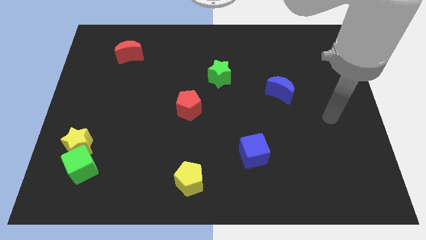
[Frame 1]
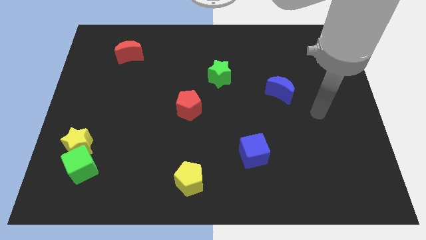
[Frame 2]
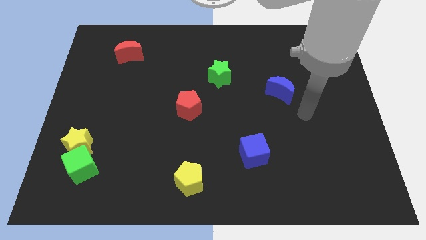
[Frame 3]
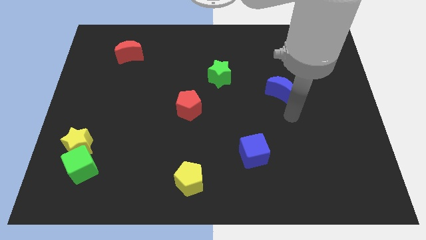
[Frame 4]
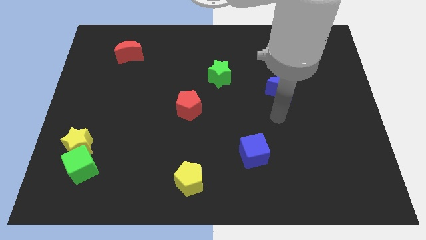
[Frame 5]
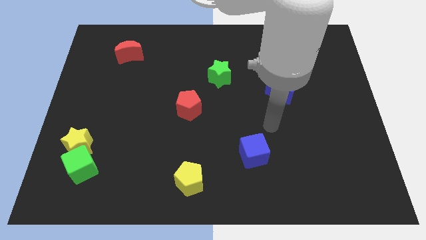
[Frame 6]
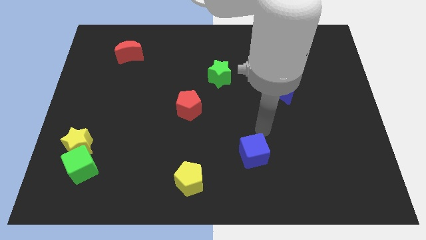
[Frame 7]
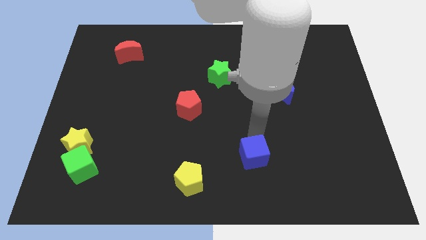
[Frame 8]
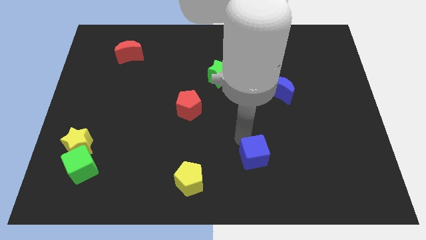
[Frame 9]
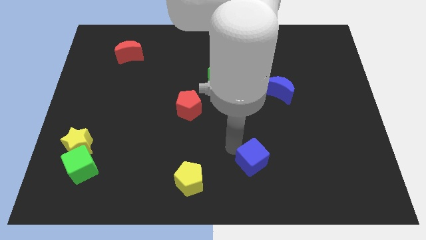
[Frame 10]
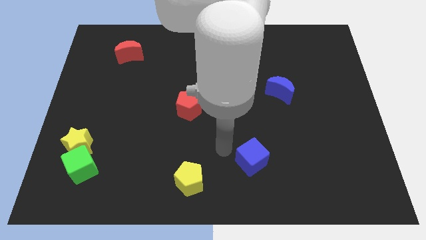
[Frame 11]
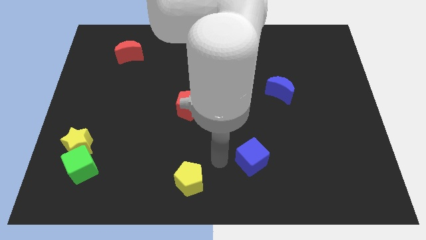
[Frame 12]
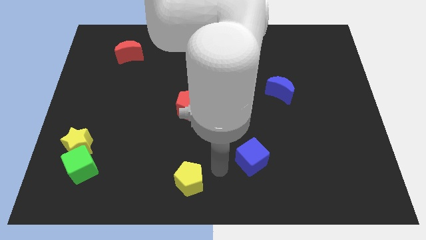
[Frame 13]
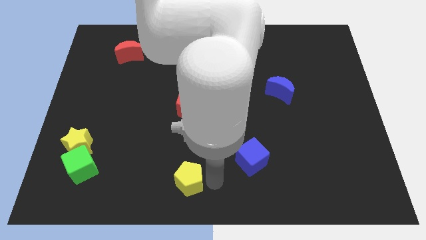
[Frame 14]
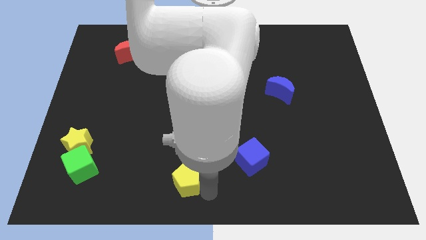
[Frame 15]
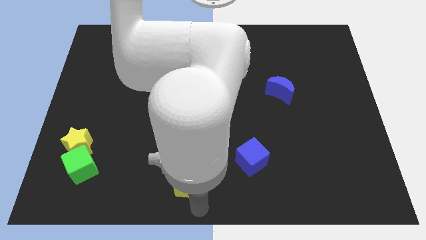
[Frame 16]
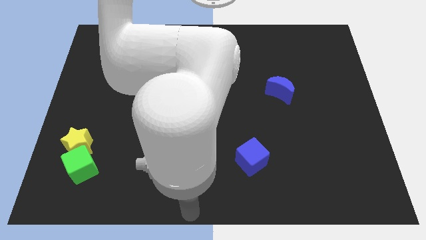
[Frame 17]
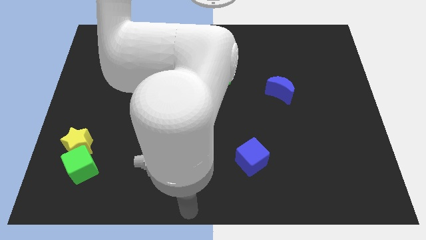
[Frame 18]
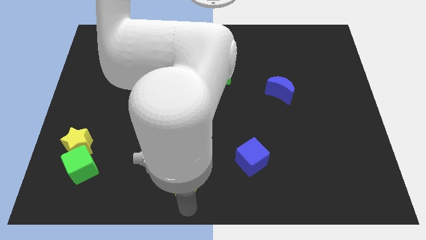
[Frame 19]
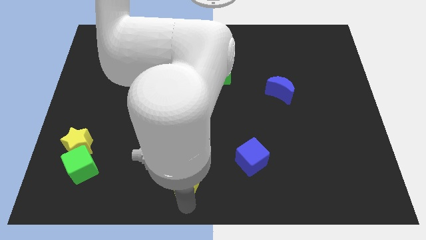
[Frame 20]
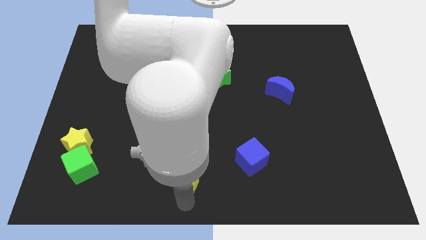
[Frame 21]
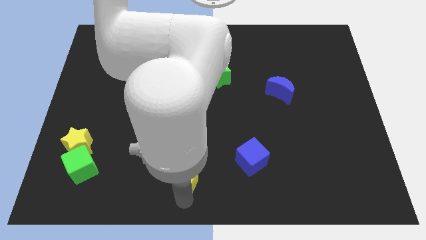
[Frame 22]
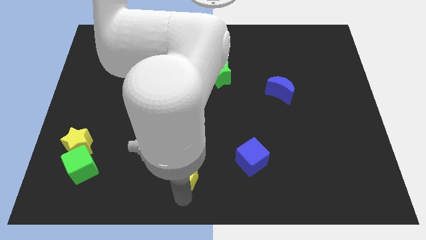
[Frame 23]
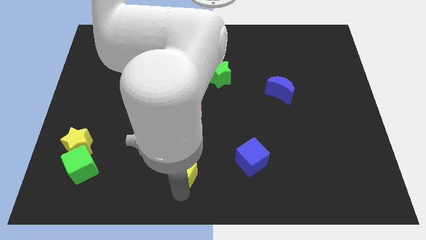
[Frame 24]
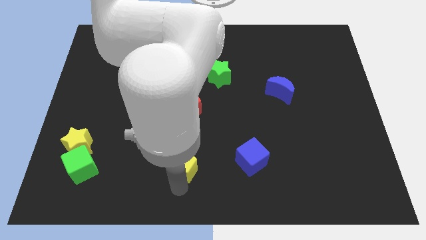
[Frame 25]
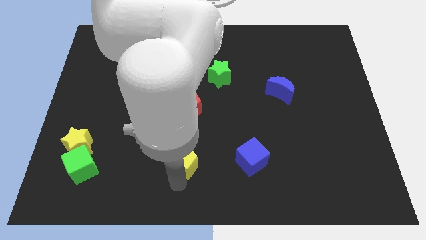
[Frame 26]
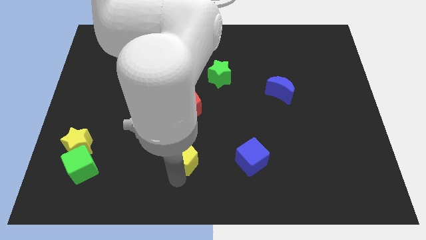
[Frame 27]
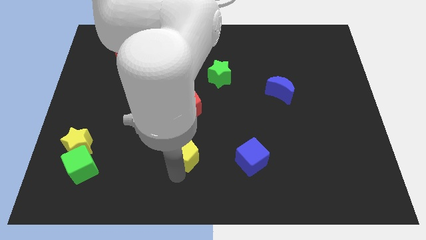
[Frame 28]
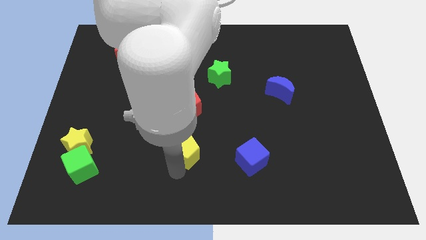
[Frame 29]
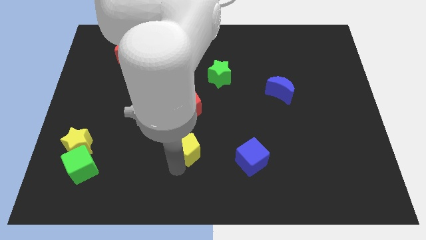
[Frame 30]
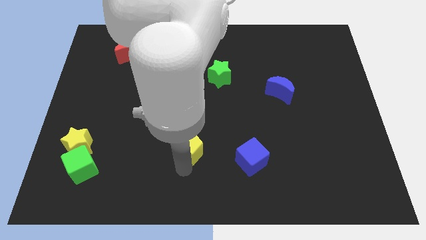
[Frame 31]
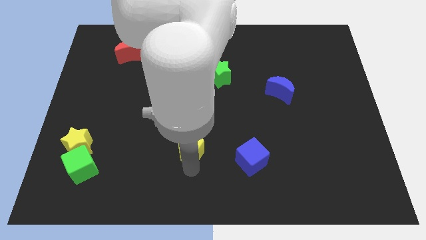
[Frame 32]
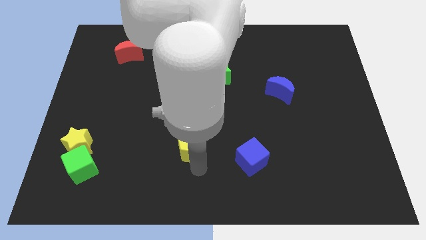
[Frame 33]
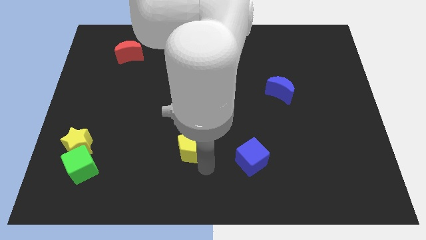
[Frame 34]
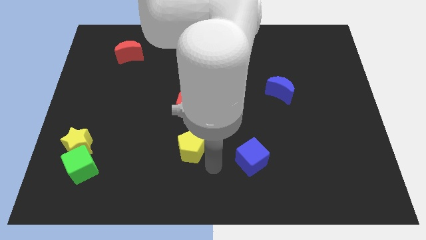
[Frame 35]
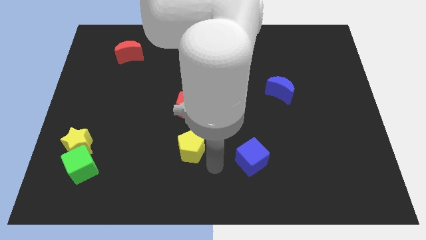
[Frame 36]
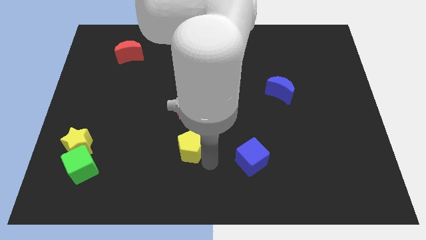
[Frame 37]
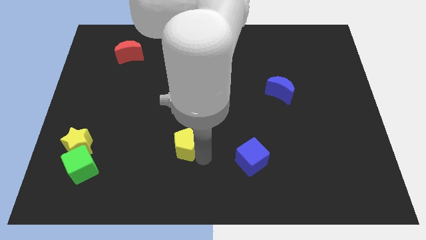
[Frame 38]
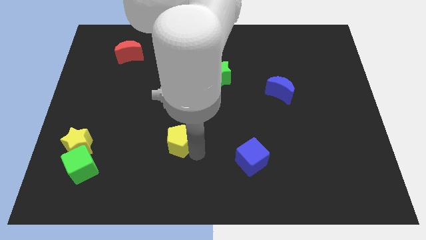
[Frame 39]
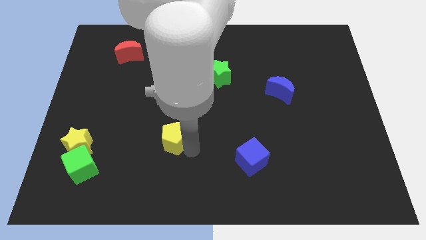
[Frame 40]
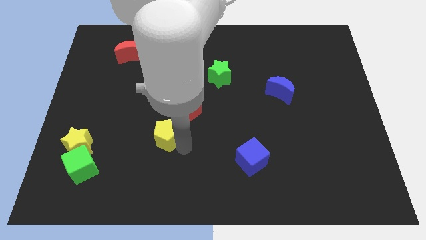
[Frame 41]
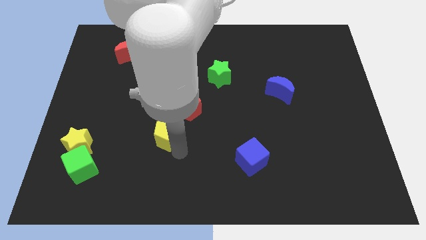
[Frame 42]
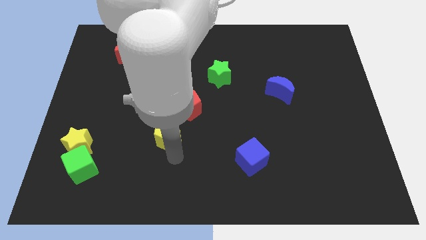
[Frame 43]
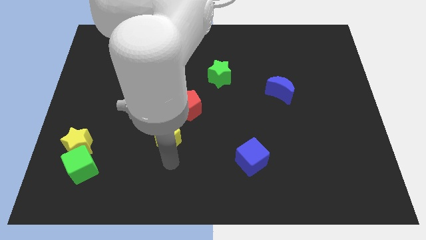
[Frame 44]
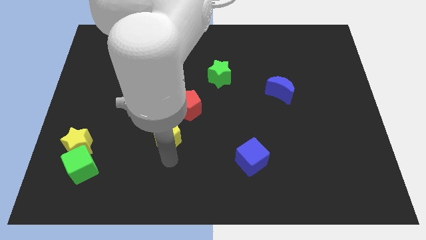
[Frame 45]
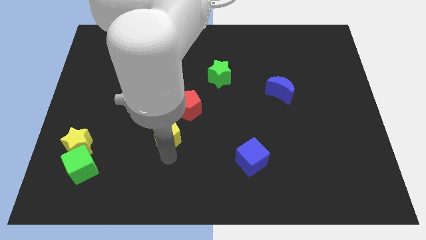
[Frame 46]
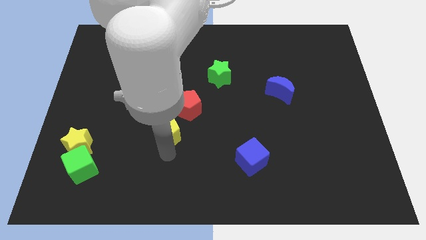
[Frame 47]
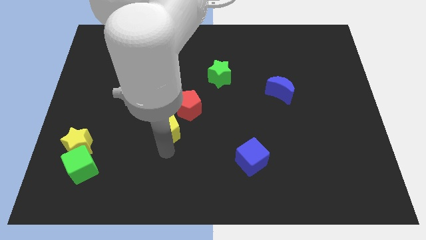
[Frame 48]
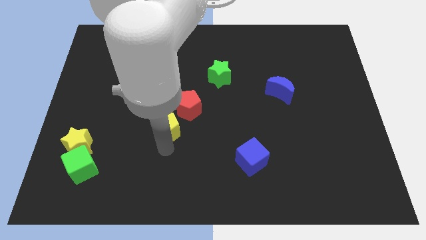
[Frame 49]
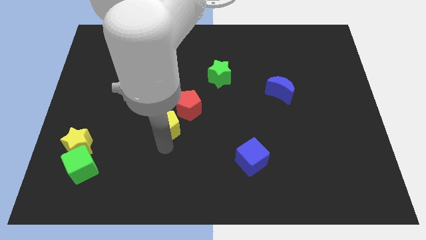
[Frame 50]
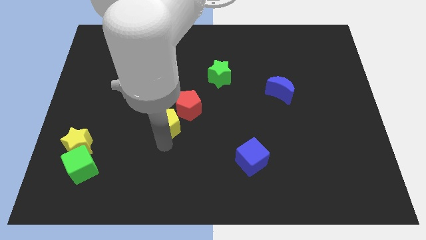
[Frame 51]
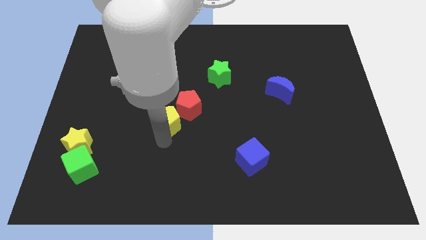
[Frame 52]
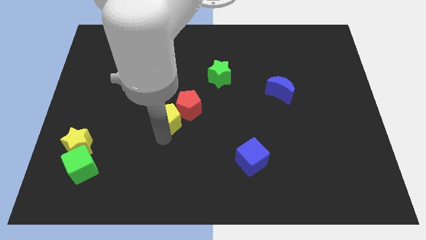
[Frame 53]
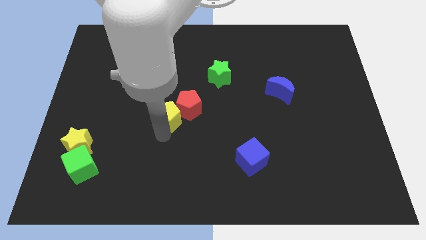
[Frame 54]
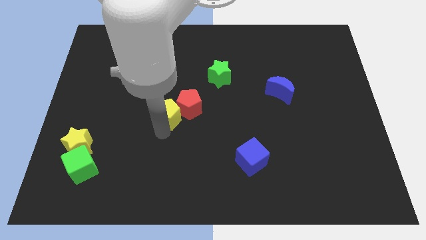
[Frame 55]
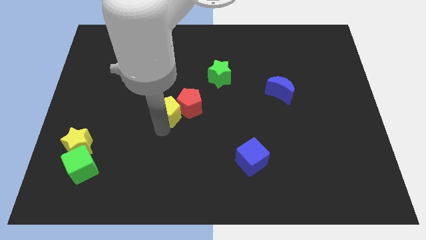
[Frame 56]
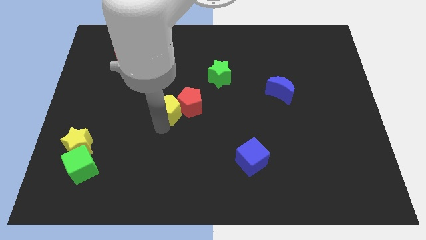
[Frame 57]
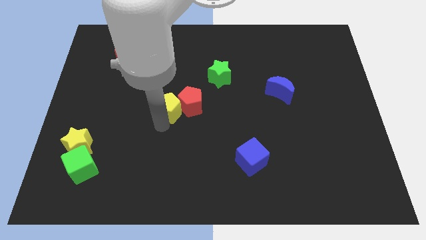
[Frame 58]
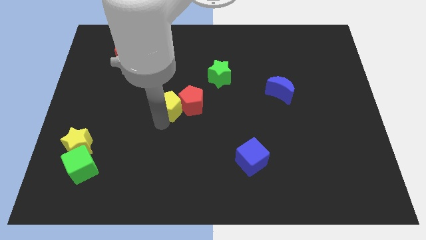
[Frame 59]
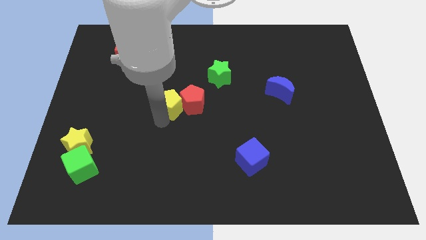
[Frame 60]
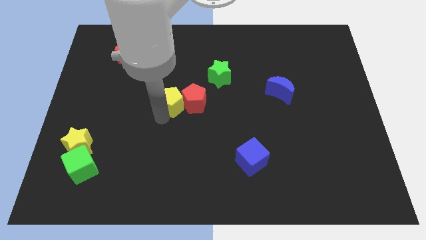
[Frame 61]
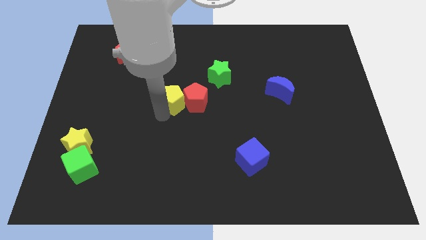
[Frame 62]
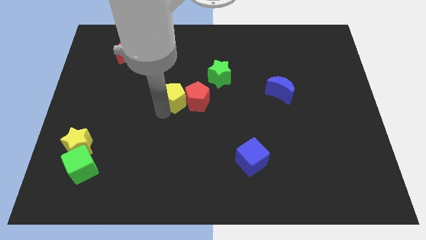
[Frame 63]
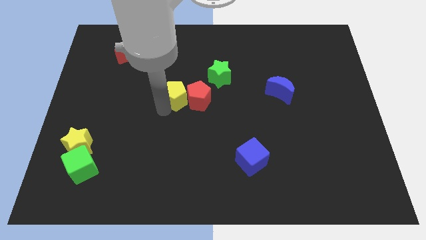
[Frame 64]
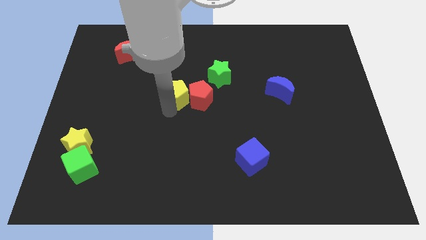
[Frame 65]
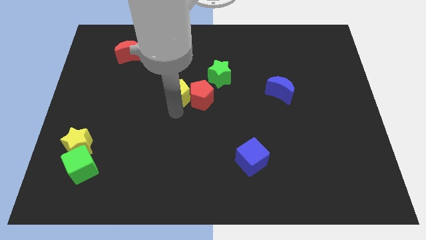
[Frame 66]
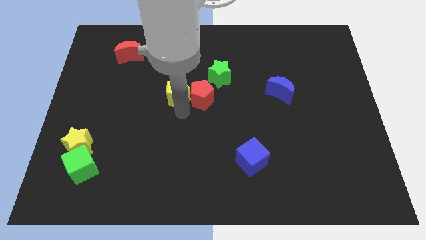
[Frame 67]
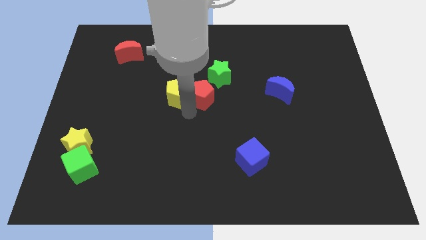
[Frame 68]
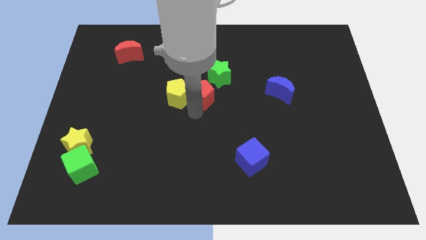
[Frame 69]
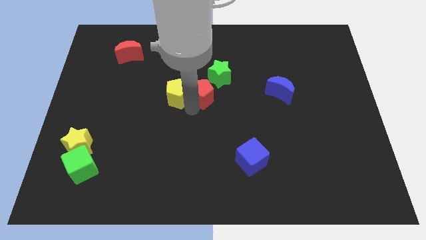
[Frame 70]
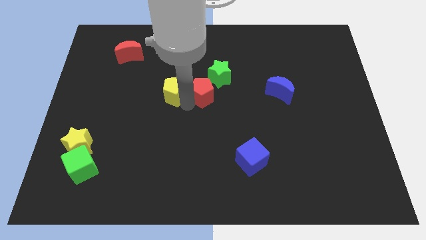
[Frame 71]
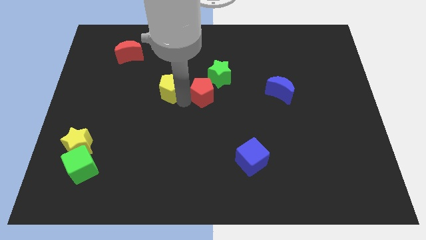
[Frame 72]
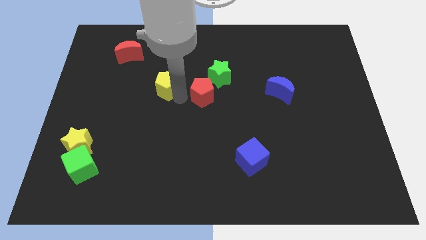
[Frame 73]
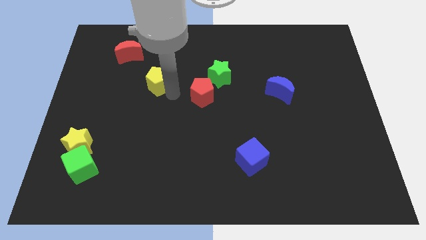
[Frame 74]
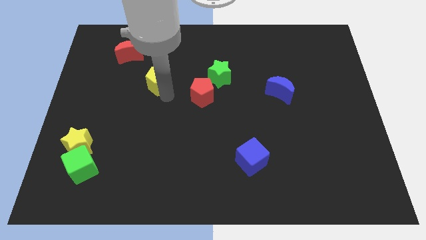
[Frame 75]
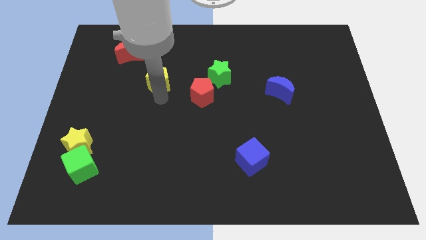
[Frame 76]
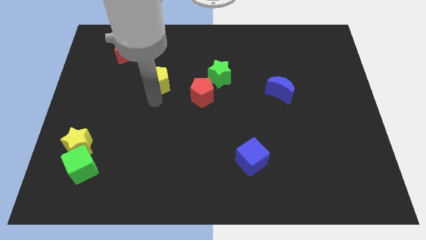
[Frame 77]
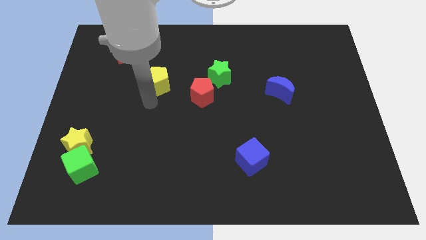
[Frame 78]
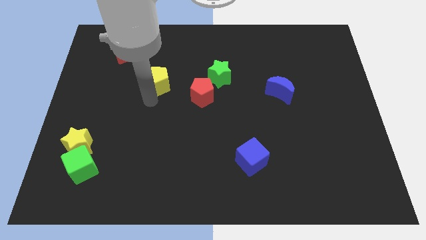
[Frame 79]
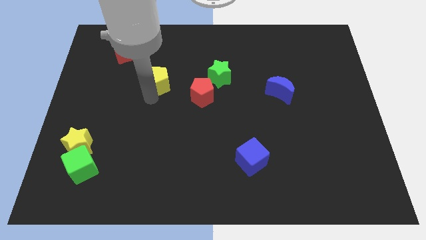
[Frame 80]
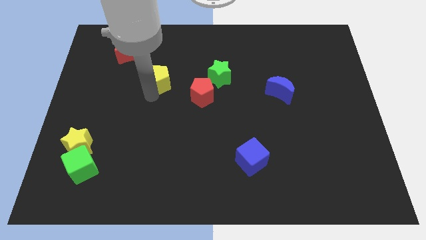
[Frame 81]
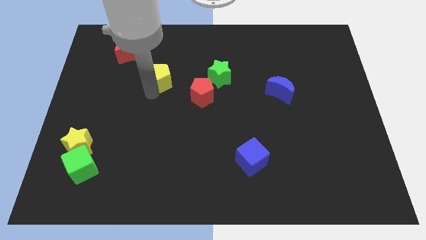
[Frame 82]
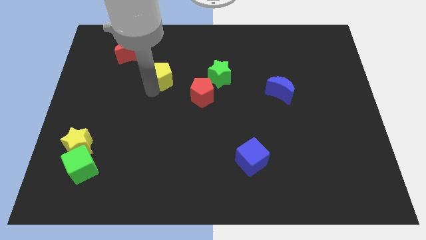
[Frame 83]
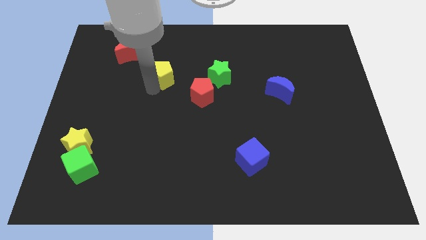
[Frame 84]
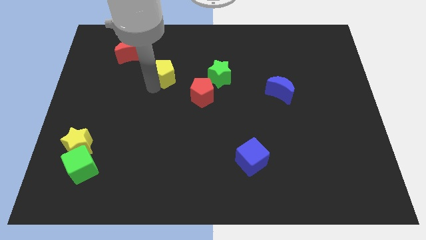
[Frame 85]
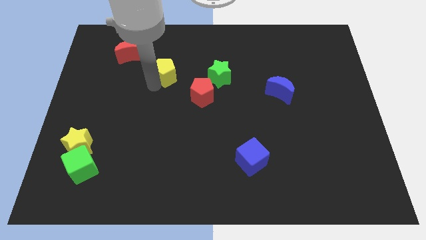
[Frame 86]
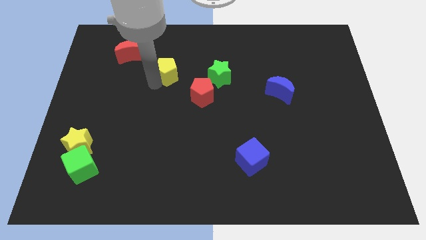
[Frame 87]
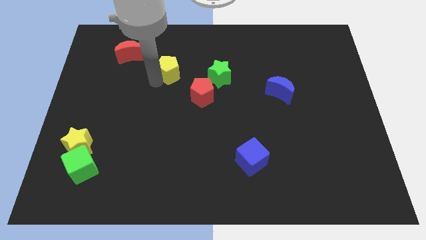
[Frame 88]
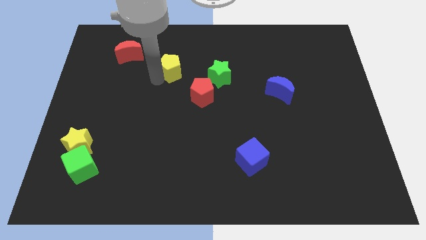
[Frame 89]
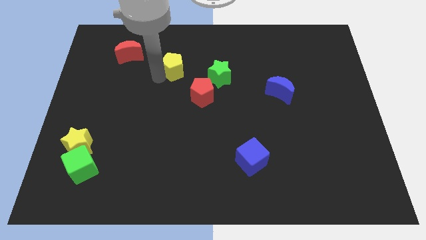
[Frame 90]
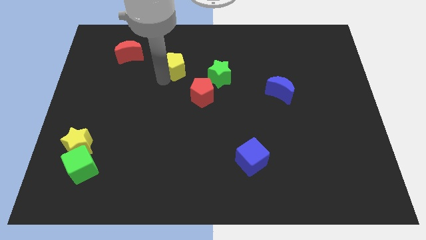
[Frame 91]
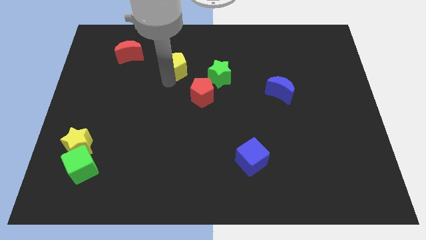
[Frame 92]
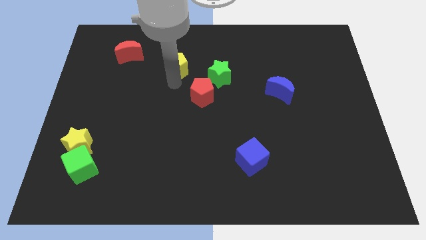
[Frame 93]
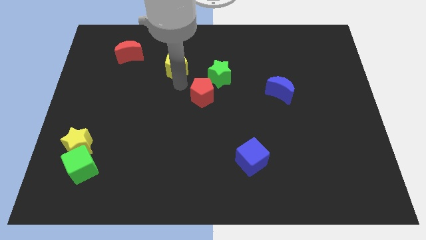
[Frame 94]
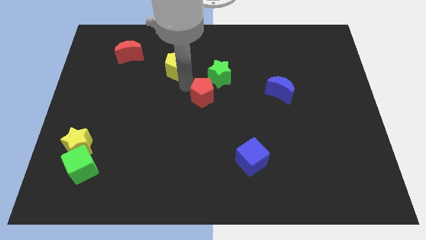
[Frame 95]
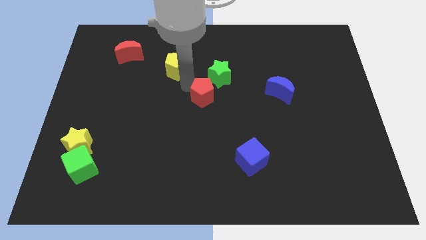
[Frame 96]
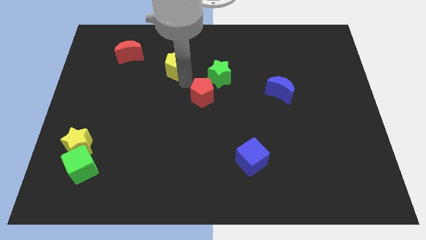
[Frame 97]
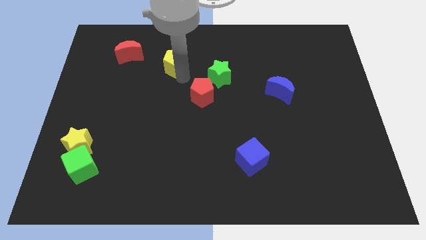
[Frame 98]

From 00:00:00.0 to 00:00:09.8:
move the yellow pentagon to the right of the red moon
